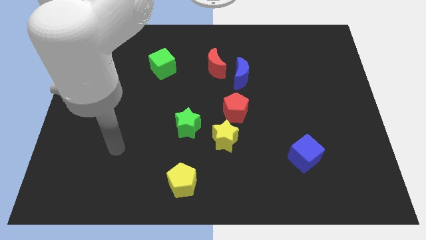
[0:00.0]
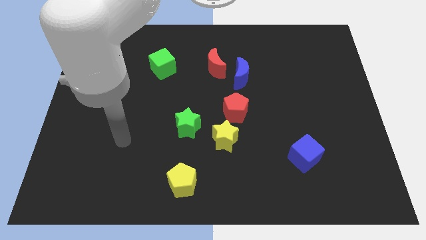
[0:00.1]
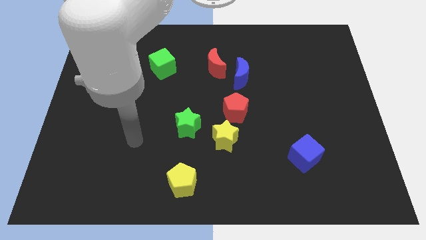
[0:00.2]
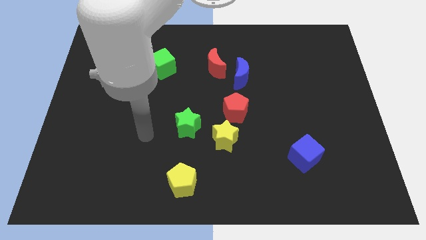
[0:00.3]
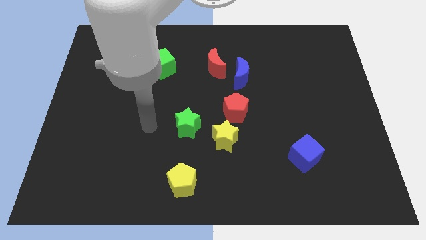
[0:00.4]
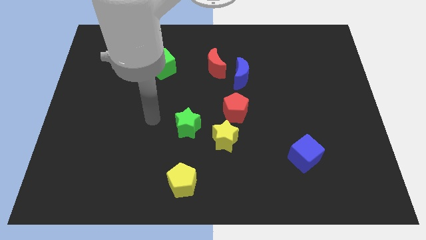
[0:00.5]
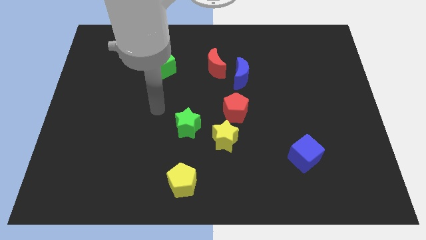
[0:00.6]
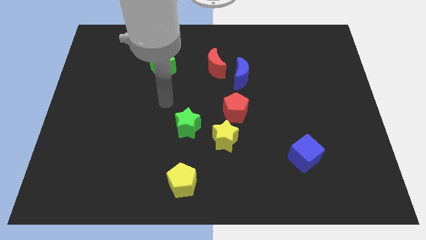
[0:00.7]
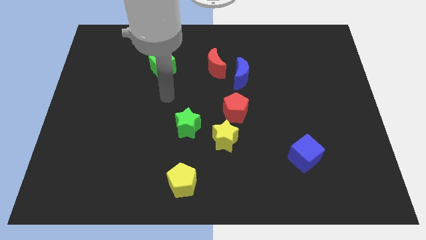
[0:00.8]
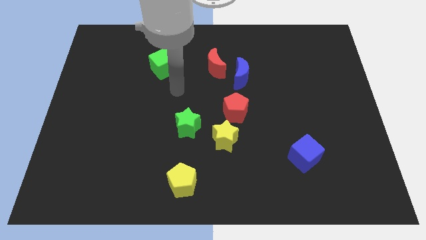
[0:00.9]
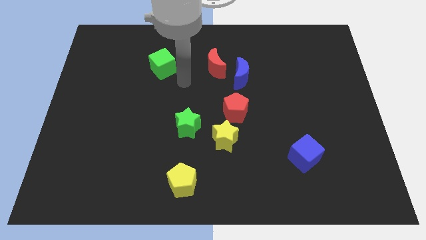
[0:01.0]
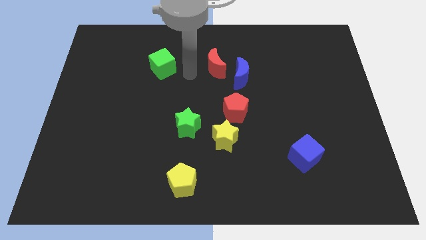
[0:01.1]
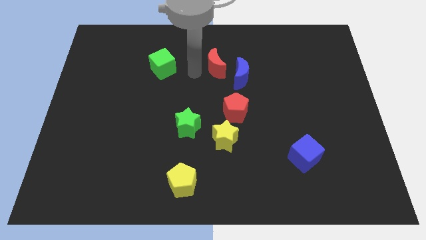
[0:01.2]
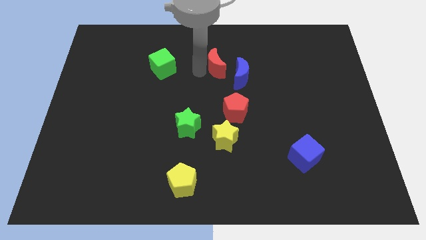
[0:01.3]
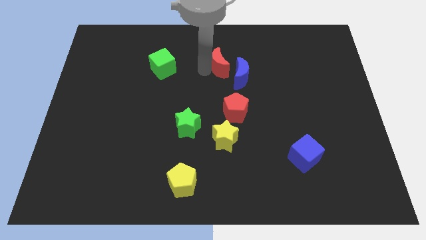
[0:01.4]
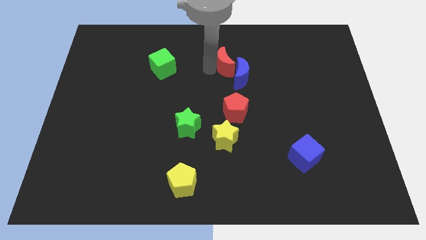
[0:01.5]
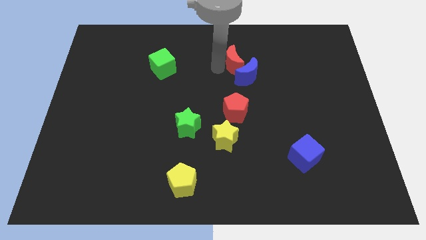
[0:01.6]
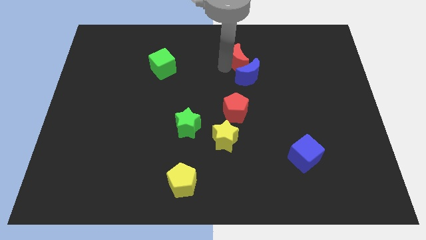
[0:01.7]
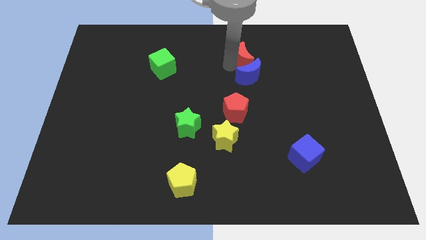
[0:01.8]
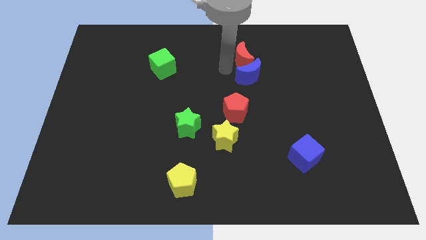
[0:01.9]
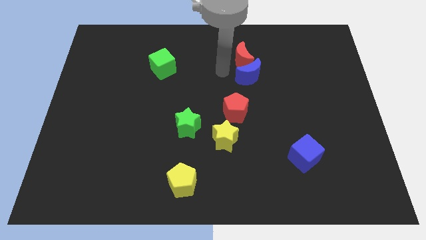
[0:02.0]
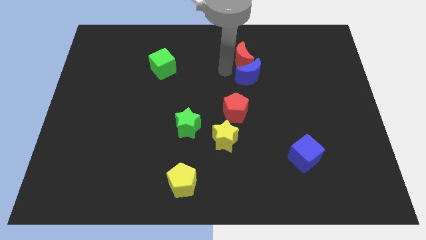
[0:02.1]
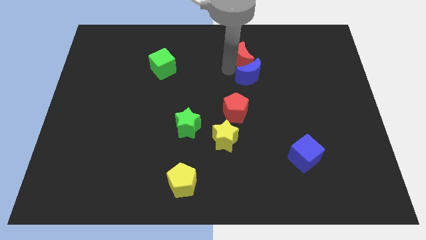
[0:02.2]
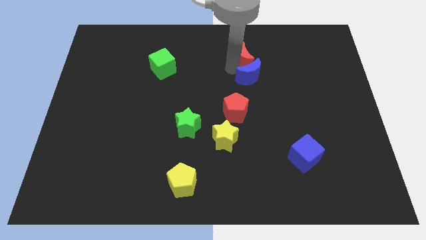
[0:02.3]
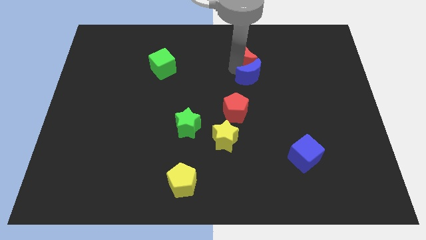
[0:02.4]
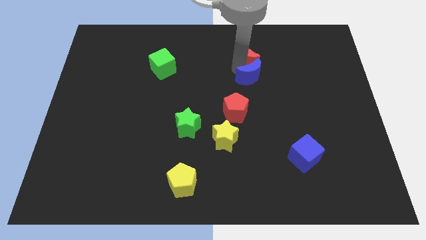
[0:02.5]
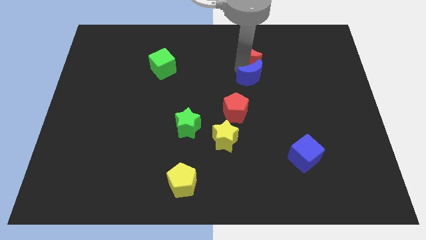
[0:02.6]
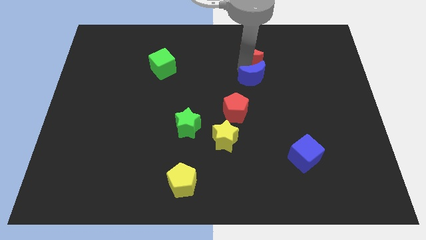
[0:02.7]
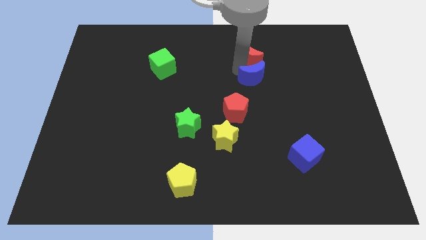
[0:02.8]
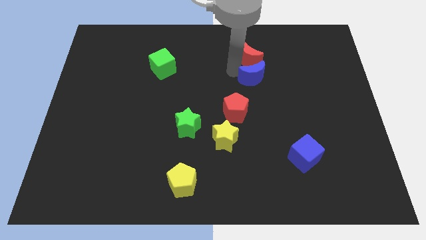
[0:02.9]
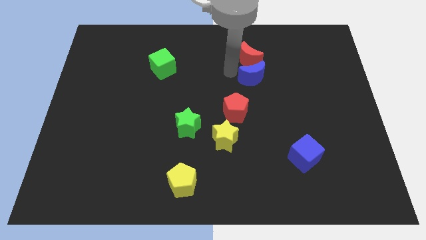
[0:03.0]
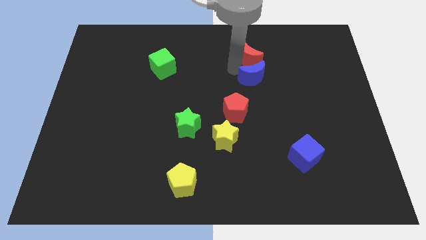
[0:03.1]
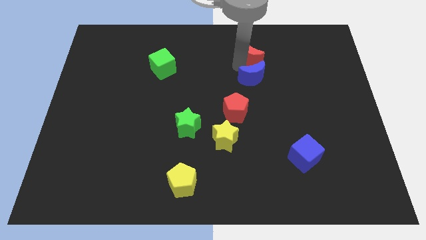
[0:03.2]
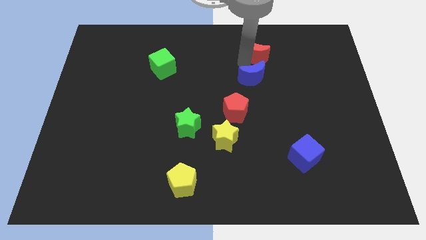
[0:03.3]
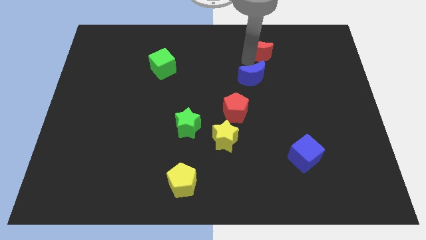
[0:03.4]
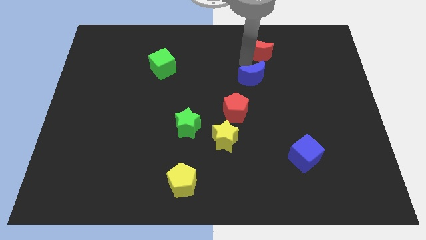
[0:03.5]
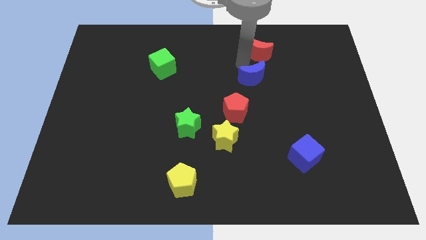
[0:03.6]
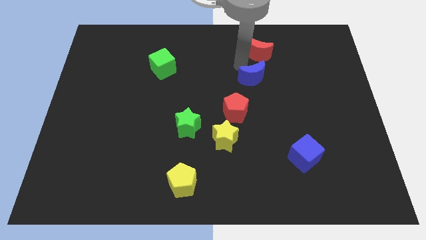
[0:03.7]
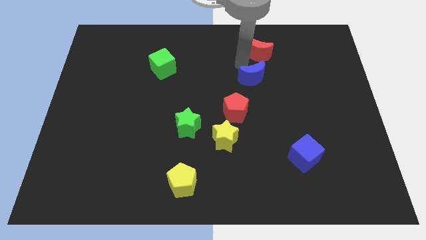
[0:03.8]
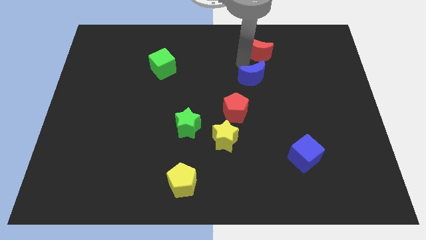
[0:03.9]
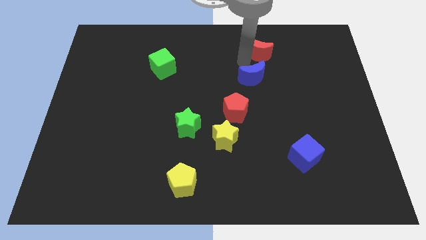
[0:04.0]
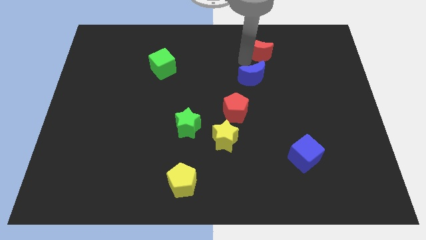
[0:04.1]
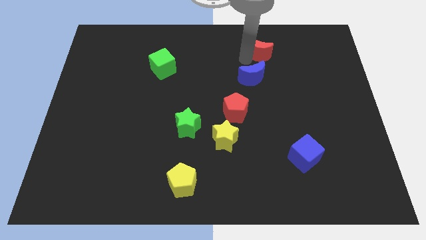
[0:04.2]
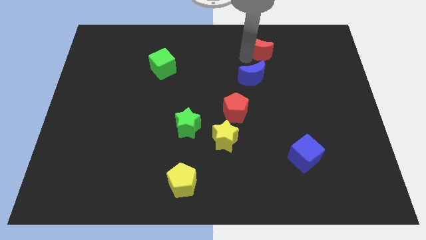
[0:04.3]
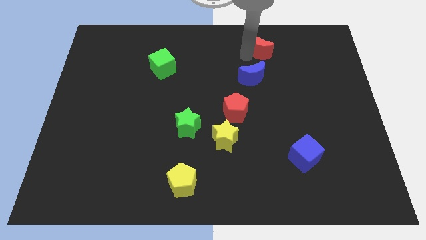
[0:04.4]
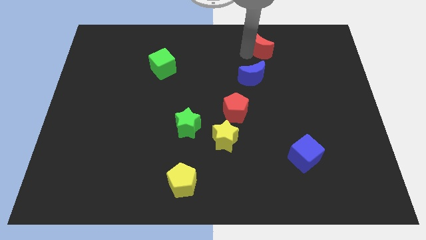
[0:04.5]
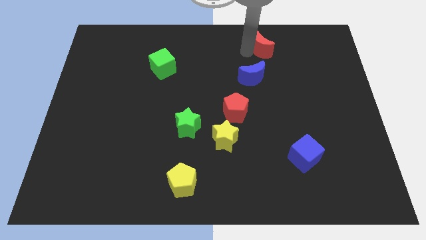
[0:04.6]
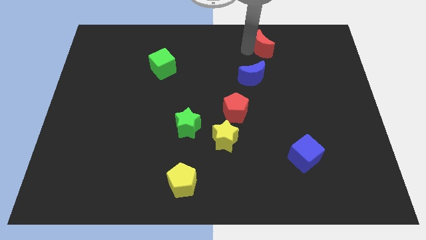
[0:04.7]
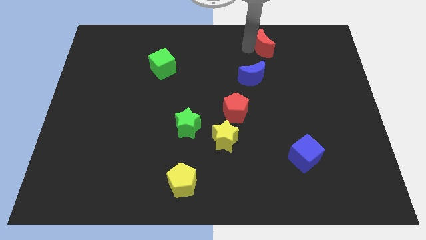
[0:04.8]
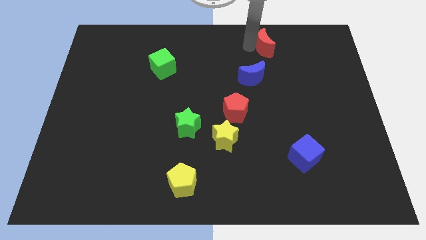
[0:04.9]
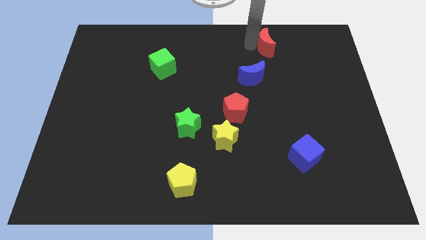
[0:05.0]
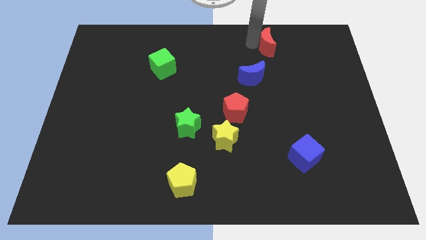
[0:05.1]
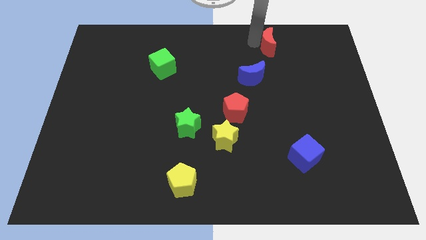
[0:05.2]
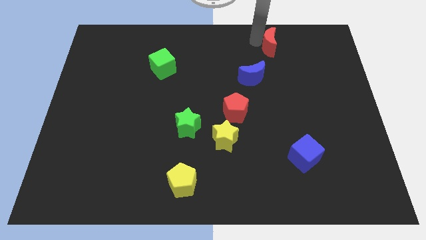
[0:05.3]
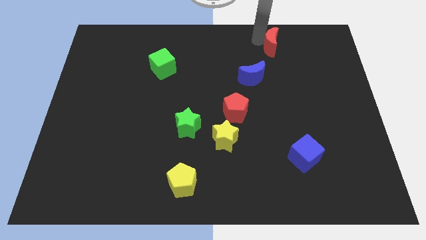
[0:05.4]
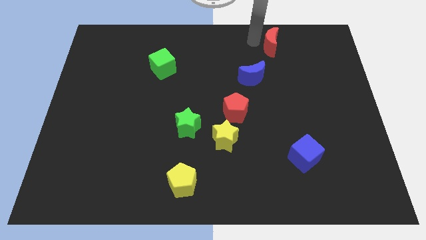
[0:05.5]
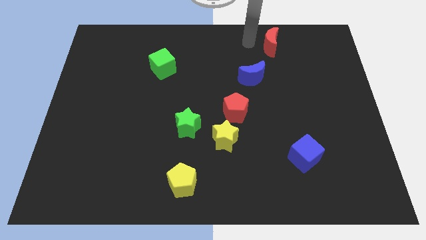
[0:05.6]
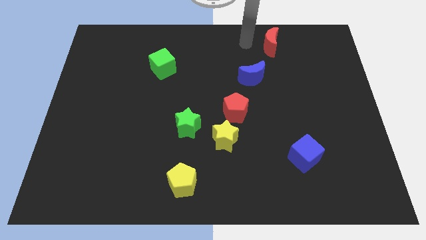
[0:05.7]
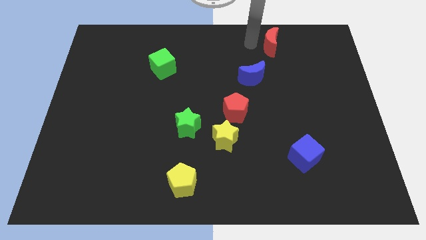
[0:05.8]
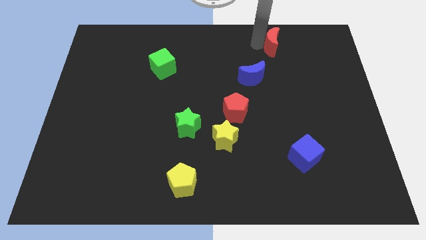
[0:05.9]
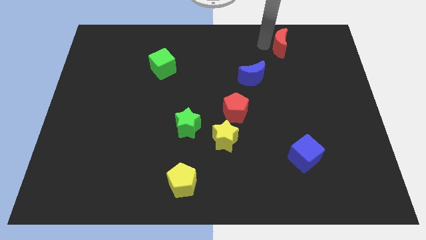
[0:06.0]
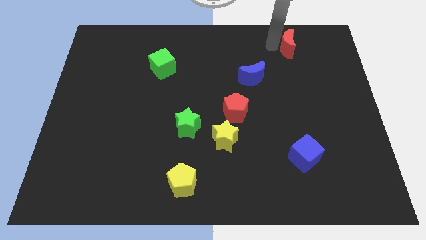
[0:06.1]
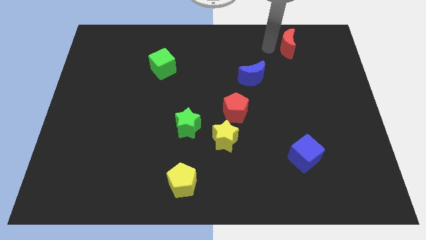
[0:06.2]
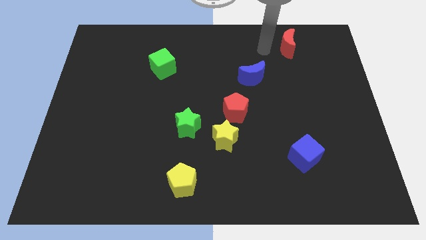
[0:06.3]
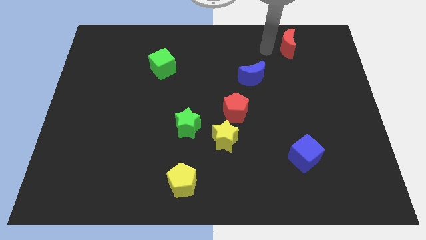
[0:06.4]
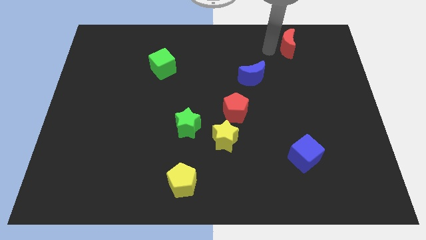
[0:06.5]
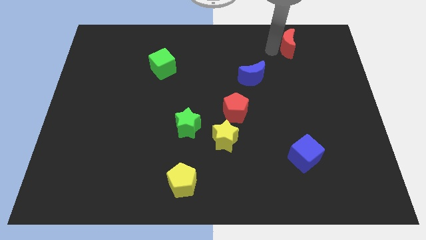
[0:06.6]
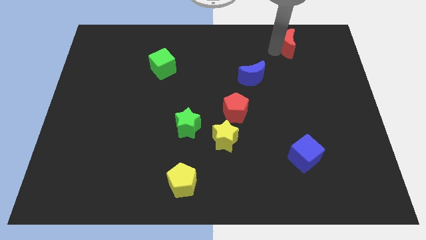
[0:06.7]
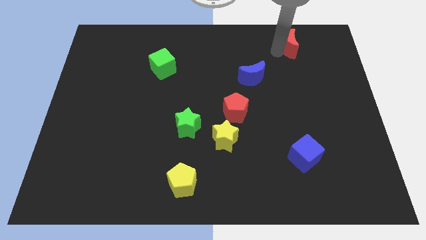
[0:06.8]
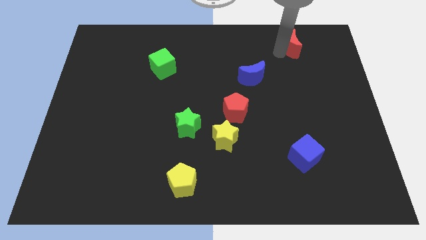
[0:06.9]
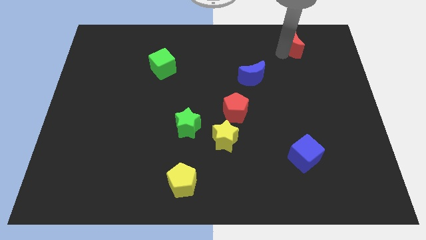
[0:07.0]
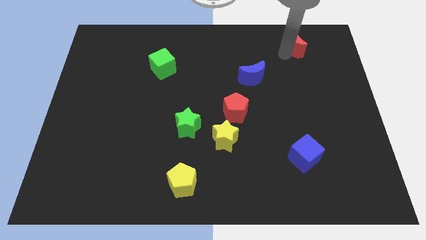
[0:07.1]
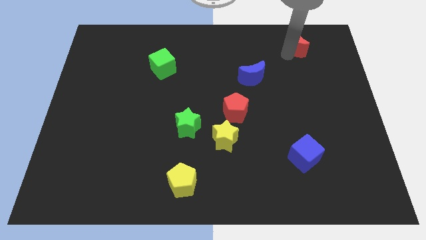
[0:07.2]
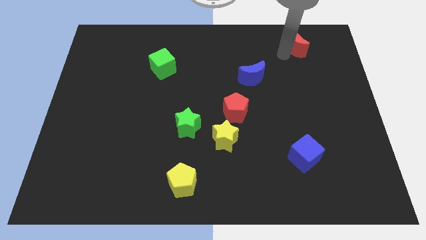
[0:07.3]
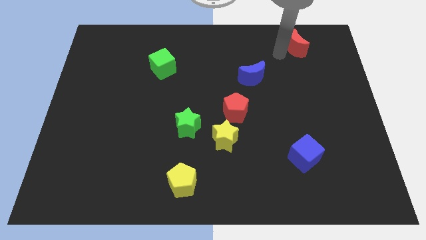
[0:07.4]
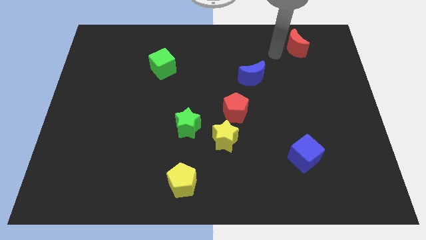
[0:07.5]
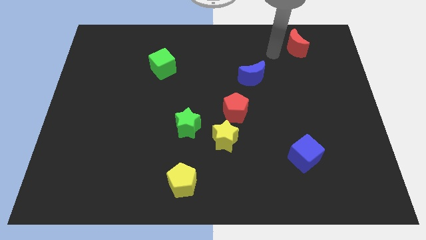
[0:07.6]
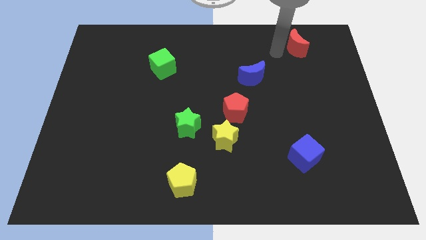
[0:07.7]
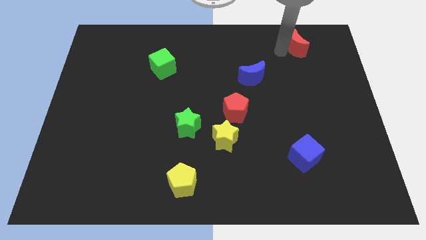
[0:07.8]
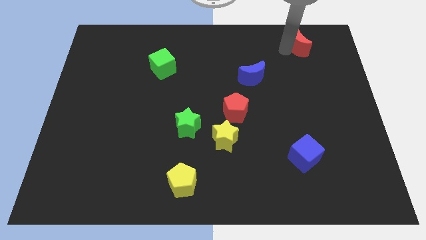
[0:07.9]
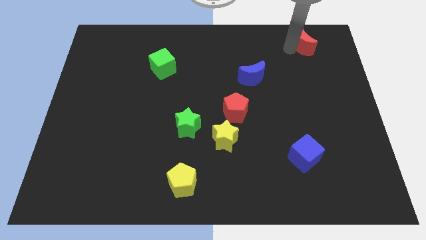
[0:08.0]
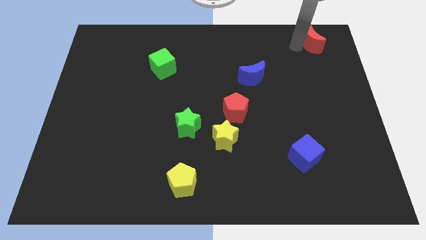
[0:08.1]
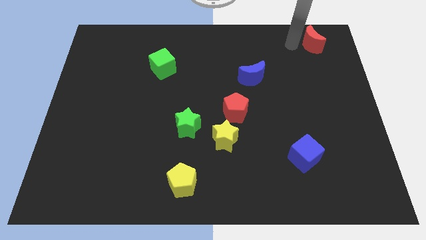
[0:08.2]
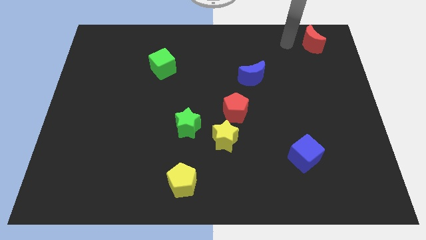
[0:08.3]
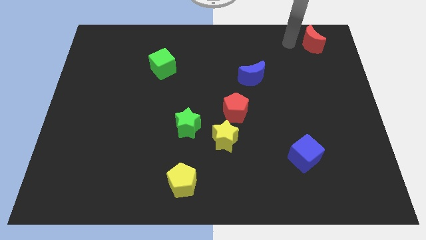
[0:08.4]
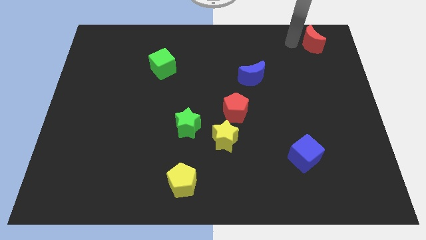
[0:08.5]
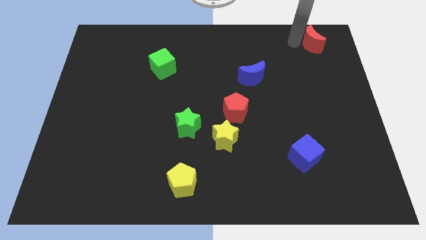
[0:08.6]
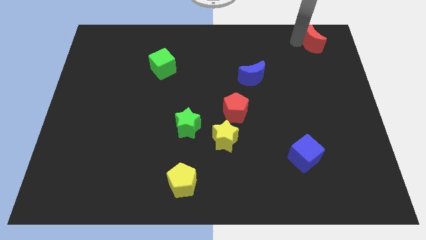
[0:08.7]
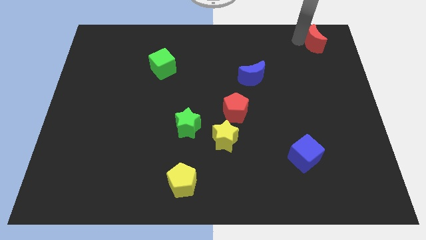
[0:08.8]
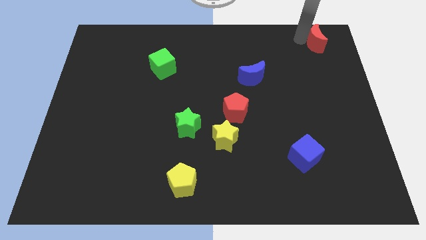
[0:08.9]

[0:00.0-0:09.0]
put the red moon to the upper right corner
